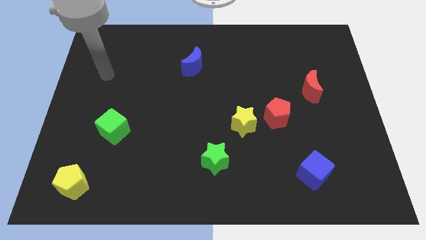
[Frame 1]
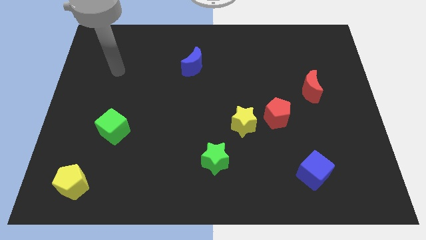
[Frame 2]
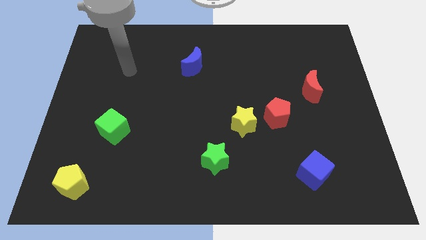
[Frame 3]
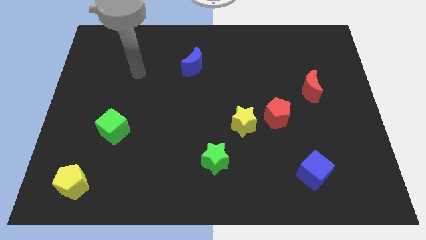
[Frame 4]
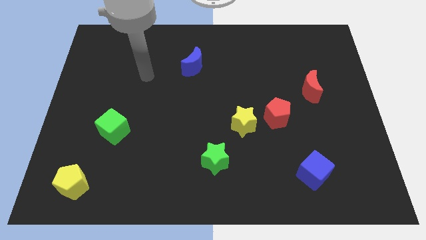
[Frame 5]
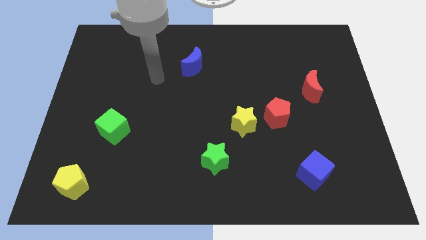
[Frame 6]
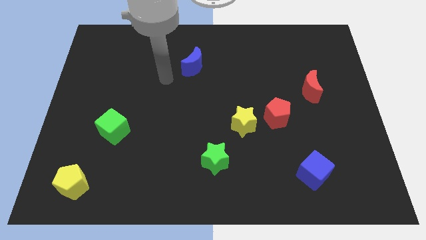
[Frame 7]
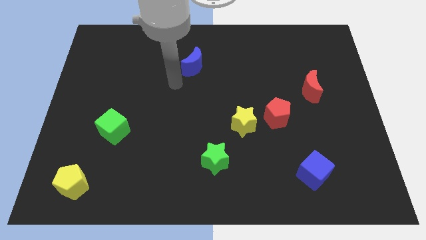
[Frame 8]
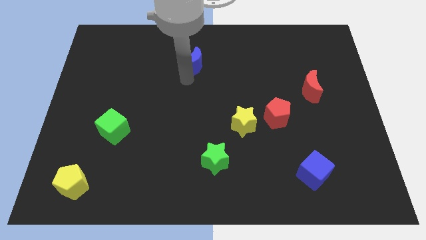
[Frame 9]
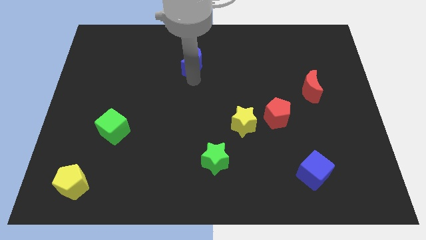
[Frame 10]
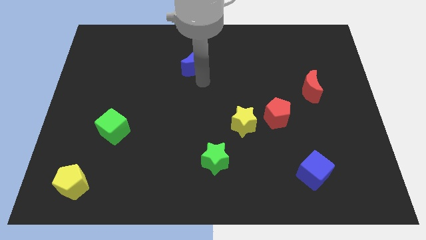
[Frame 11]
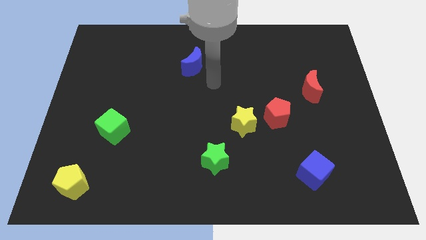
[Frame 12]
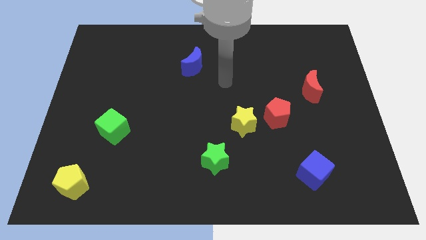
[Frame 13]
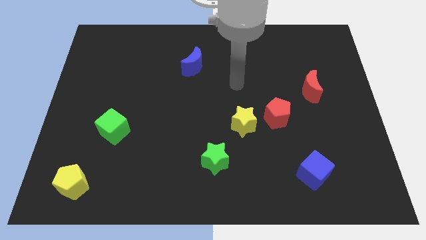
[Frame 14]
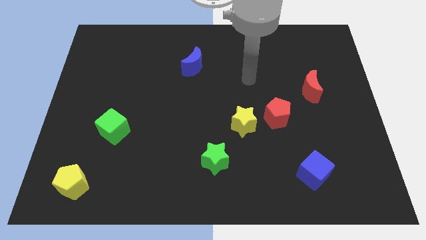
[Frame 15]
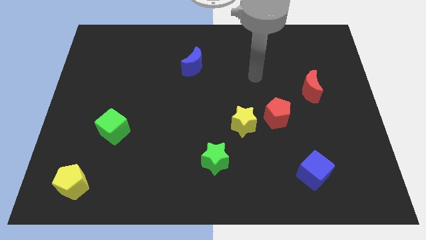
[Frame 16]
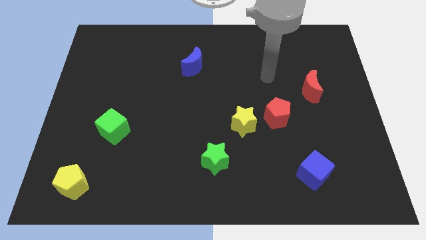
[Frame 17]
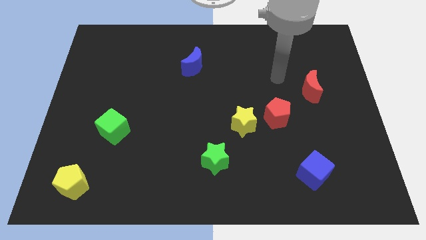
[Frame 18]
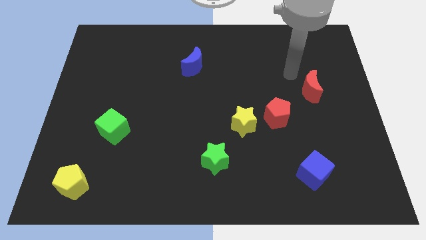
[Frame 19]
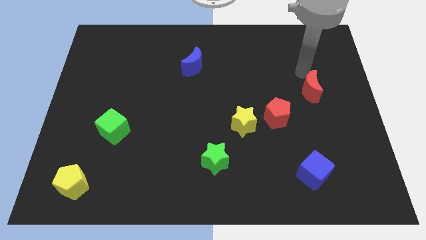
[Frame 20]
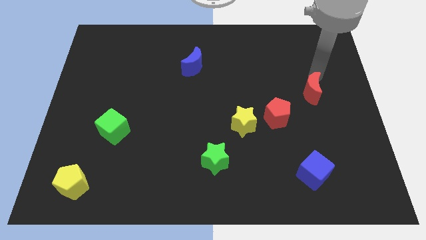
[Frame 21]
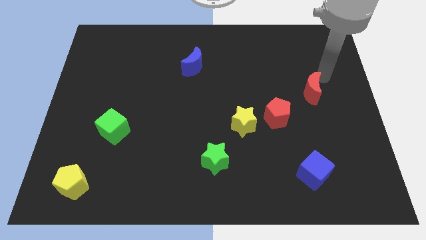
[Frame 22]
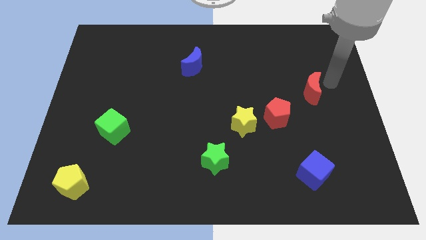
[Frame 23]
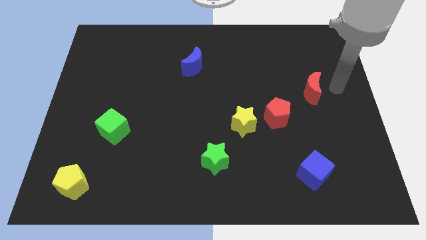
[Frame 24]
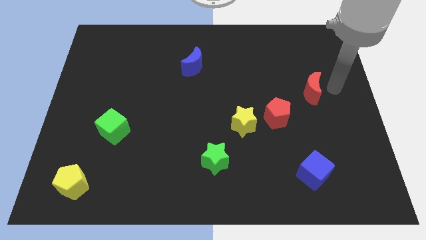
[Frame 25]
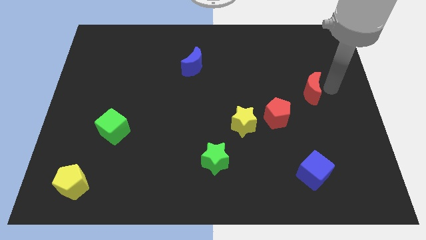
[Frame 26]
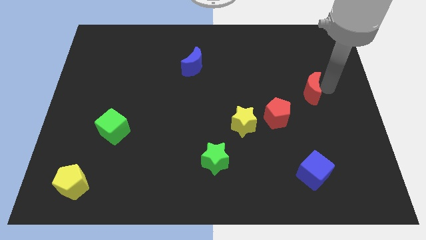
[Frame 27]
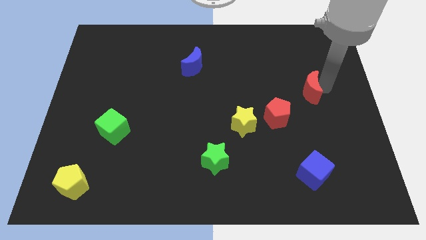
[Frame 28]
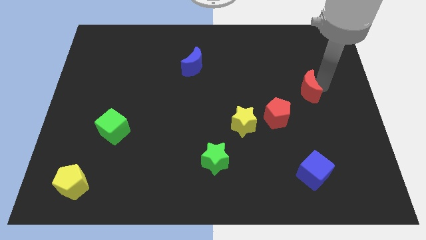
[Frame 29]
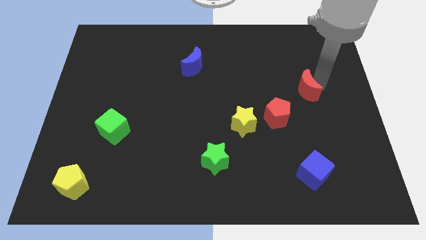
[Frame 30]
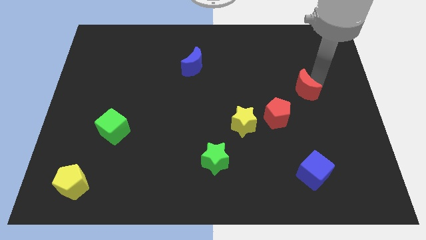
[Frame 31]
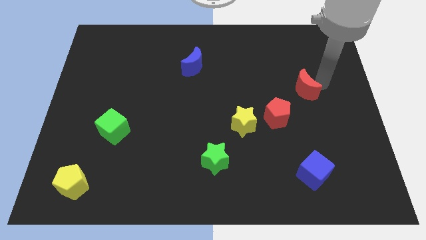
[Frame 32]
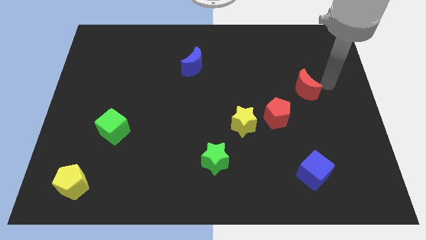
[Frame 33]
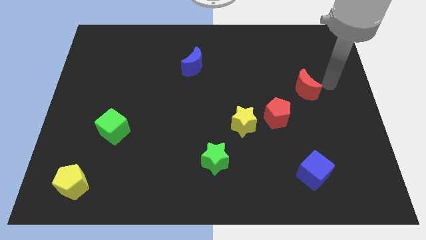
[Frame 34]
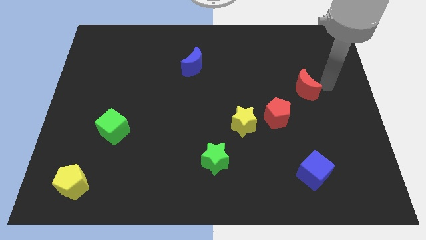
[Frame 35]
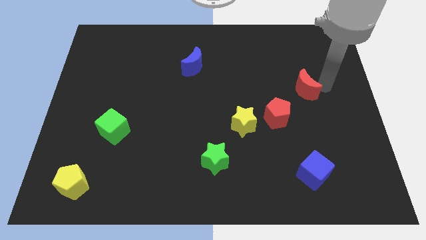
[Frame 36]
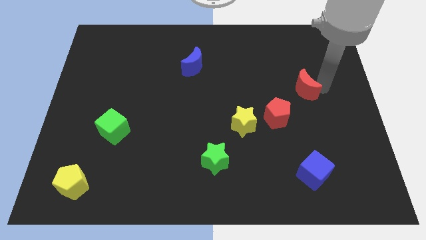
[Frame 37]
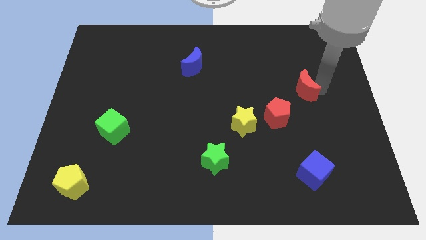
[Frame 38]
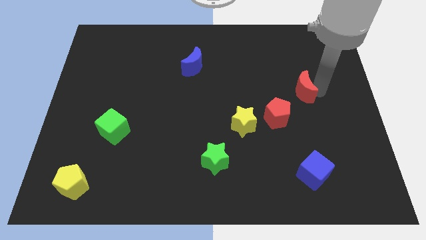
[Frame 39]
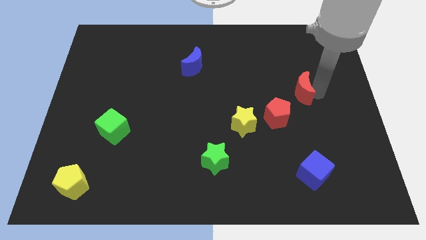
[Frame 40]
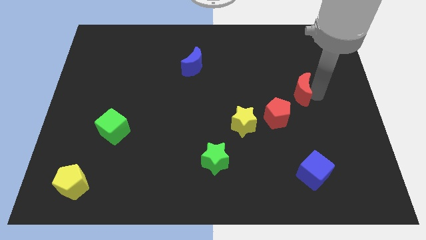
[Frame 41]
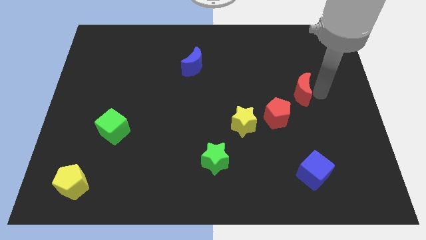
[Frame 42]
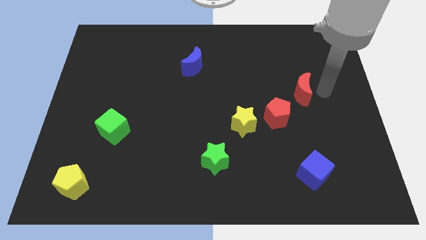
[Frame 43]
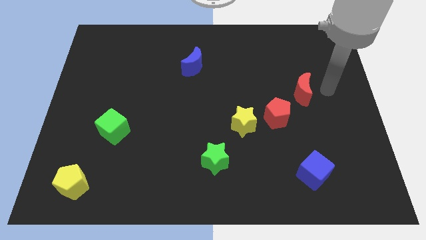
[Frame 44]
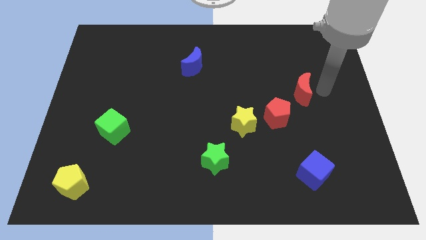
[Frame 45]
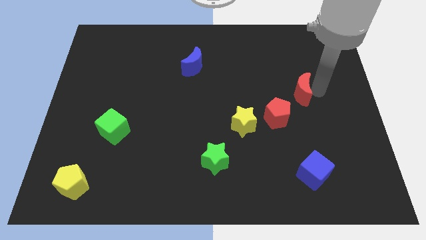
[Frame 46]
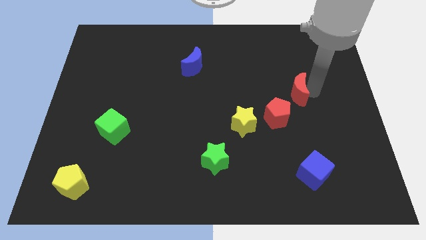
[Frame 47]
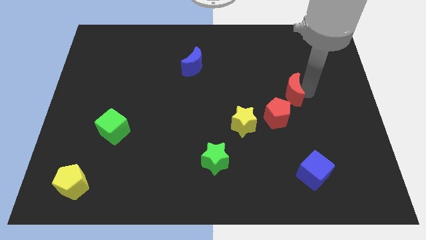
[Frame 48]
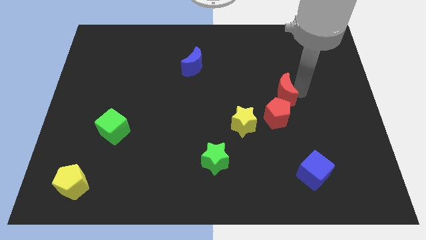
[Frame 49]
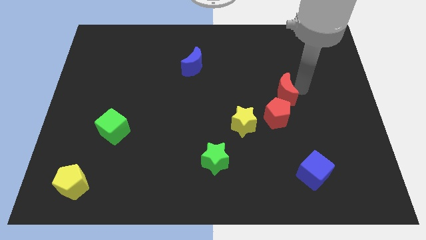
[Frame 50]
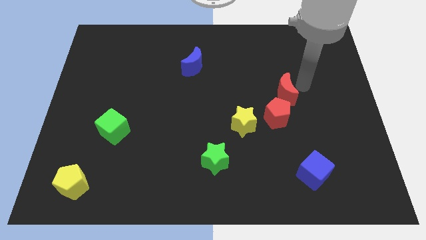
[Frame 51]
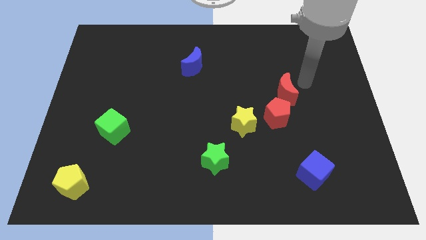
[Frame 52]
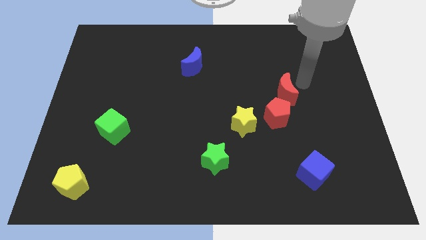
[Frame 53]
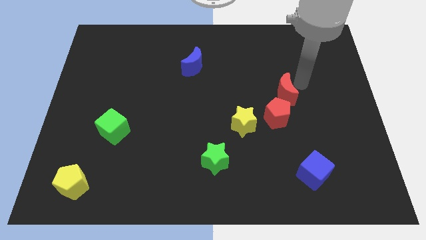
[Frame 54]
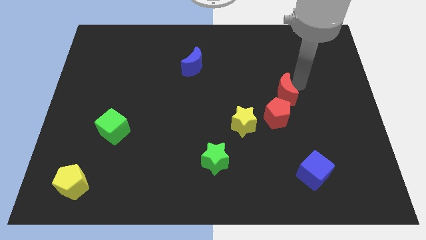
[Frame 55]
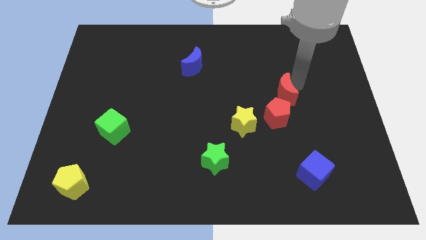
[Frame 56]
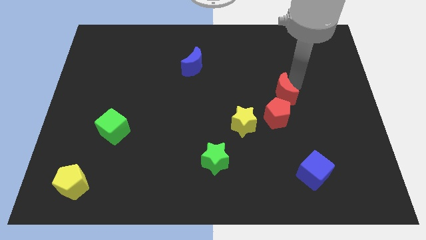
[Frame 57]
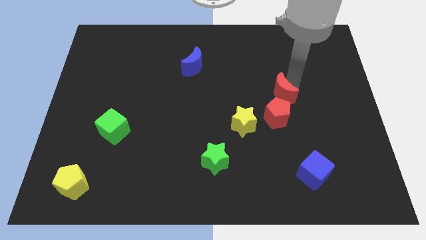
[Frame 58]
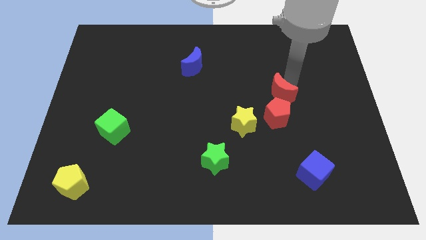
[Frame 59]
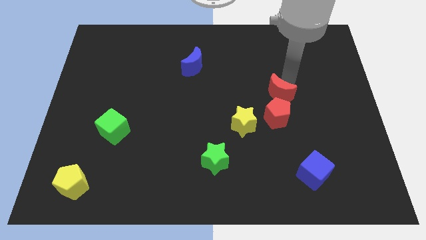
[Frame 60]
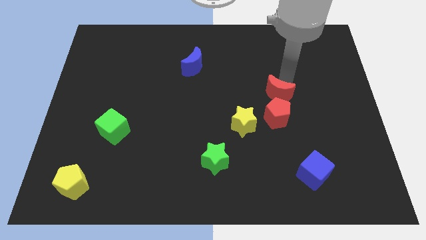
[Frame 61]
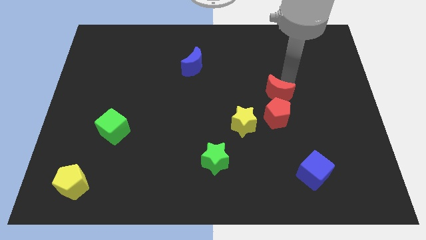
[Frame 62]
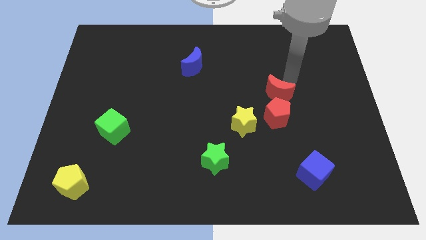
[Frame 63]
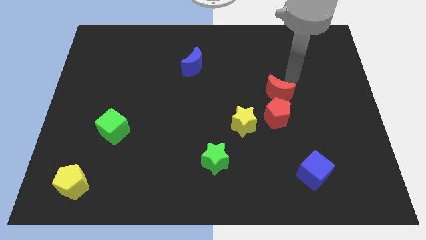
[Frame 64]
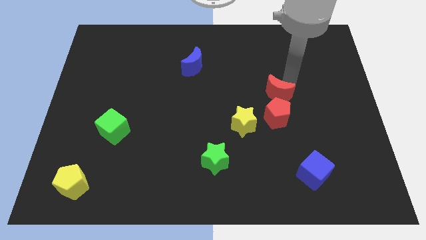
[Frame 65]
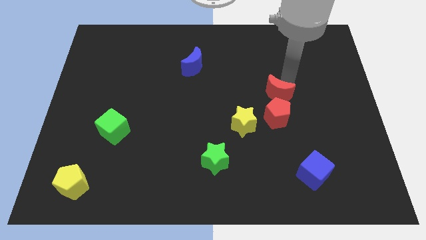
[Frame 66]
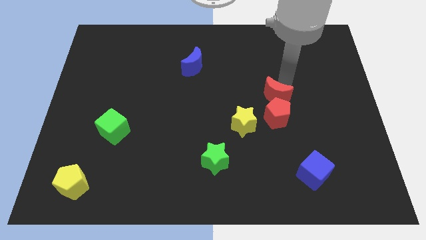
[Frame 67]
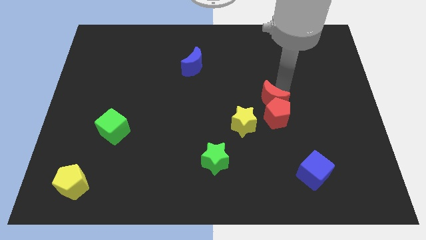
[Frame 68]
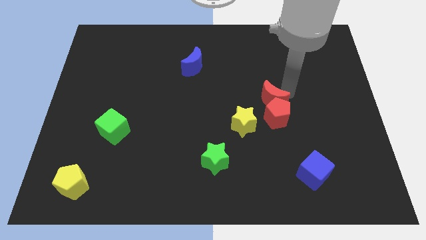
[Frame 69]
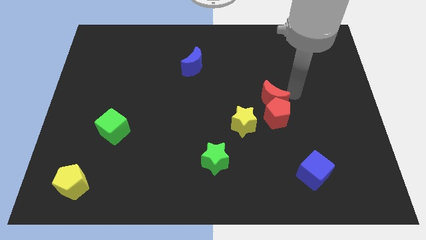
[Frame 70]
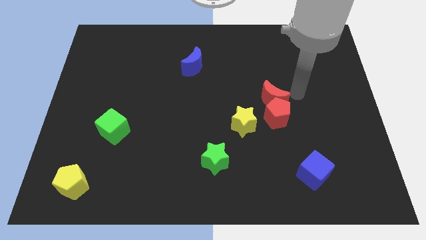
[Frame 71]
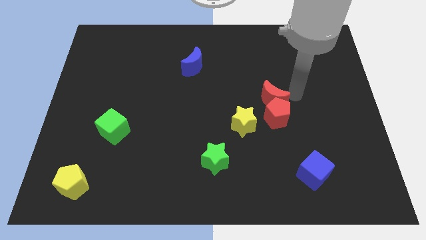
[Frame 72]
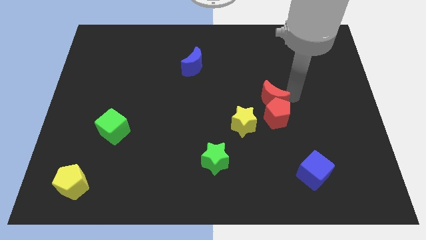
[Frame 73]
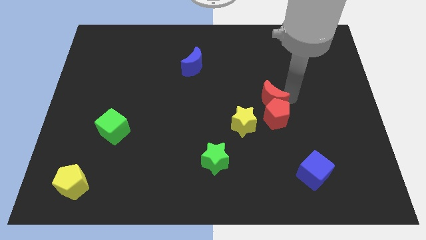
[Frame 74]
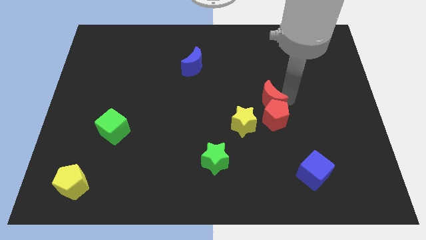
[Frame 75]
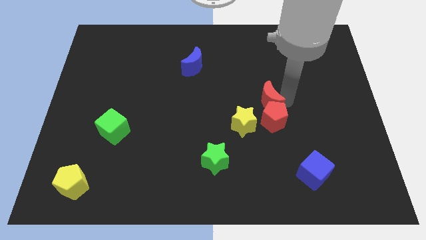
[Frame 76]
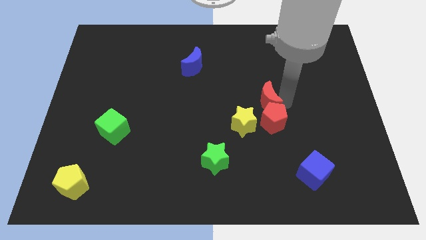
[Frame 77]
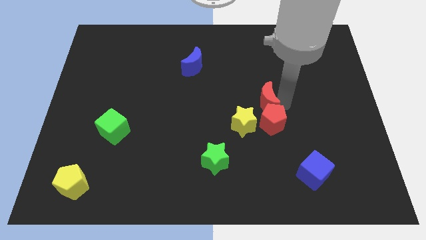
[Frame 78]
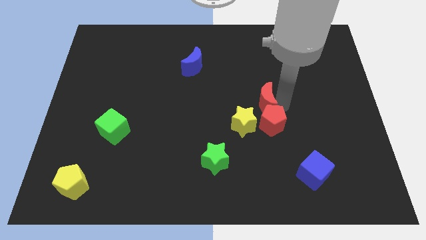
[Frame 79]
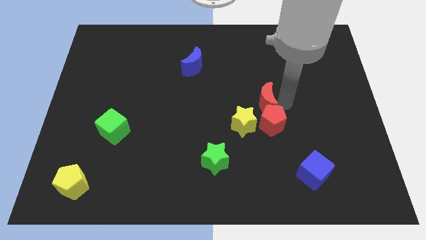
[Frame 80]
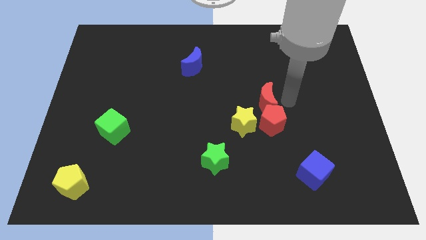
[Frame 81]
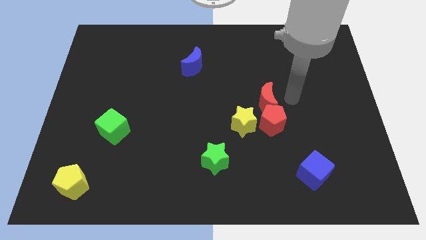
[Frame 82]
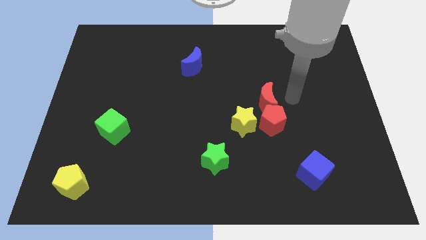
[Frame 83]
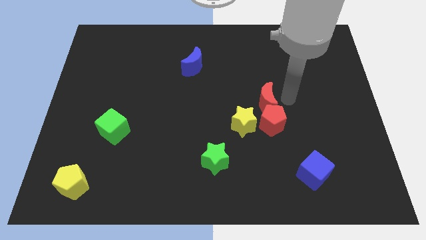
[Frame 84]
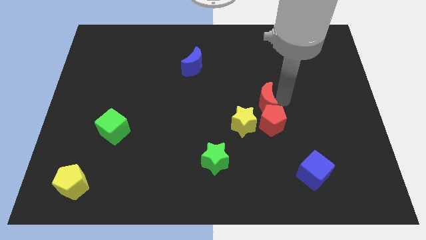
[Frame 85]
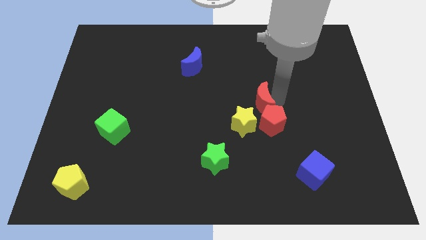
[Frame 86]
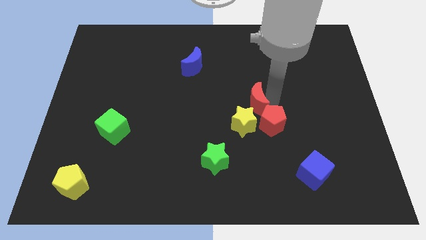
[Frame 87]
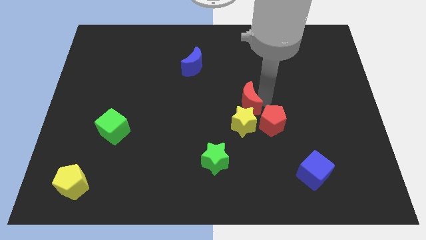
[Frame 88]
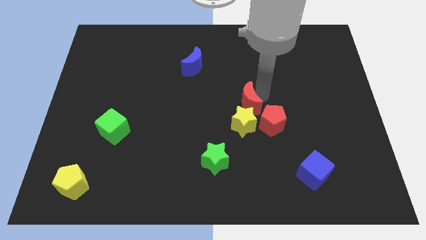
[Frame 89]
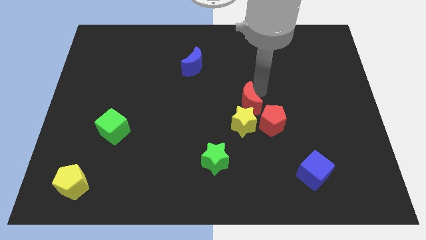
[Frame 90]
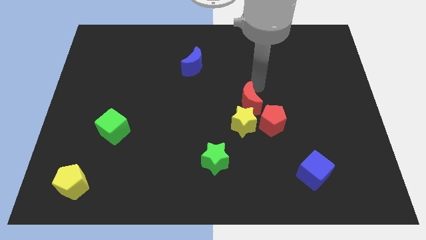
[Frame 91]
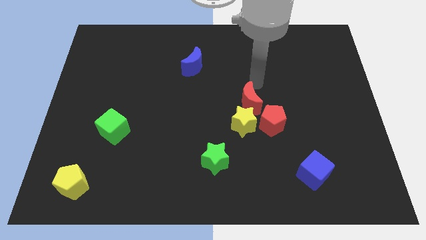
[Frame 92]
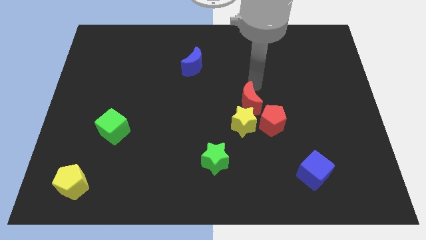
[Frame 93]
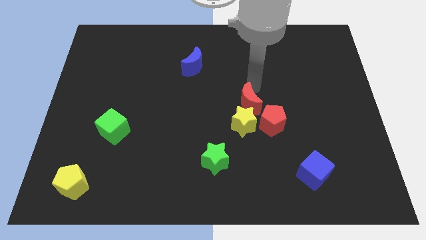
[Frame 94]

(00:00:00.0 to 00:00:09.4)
push the red moon next to the yellow star
